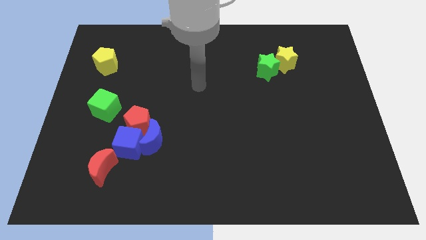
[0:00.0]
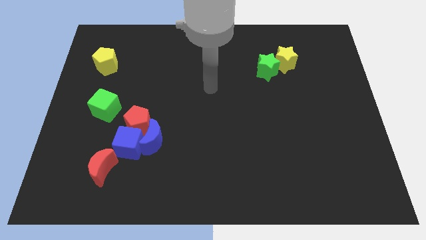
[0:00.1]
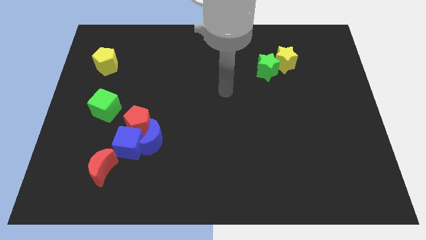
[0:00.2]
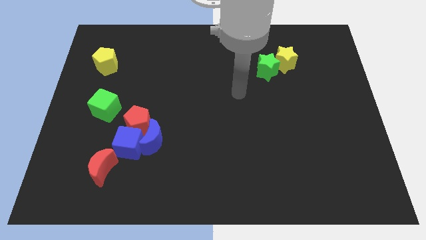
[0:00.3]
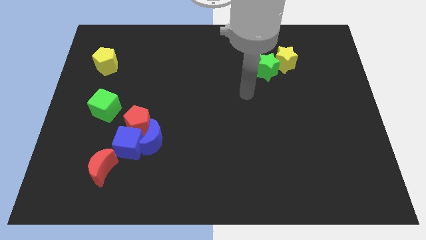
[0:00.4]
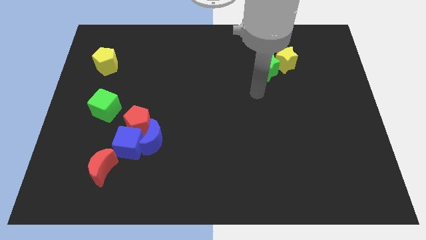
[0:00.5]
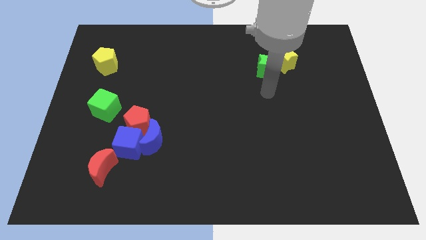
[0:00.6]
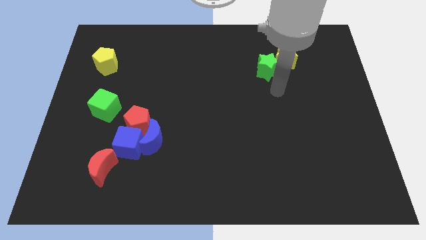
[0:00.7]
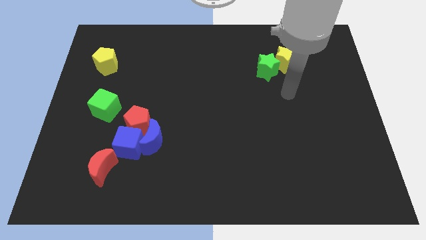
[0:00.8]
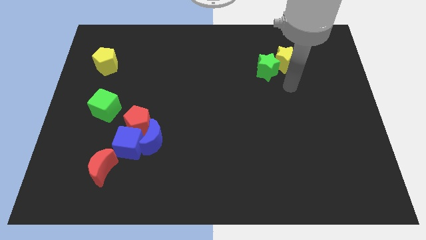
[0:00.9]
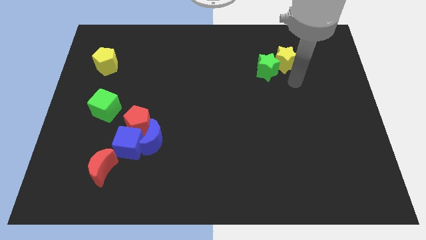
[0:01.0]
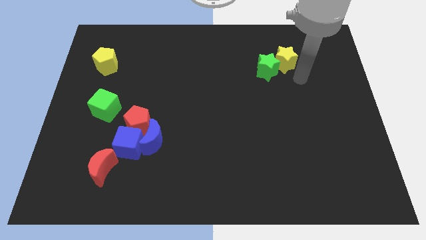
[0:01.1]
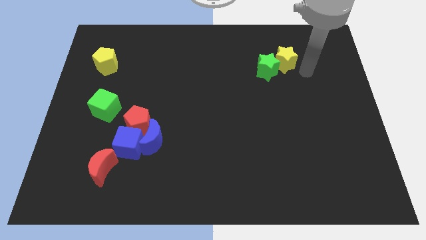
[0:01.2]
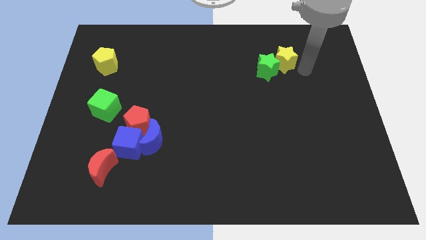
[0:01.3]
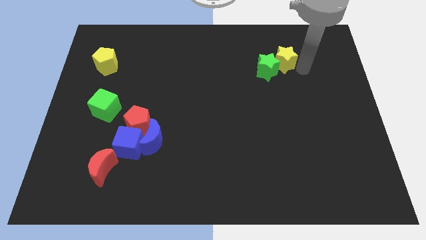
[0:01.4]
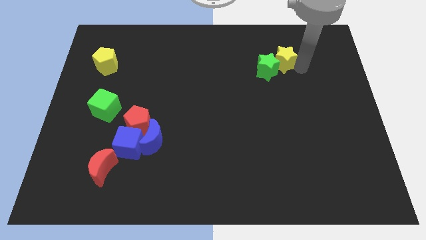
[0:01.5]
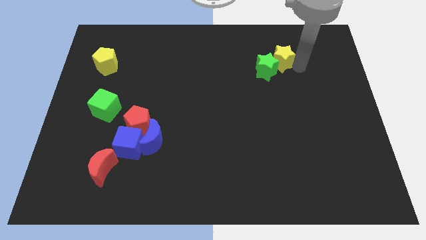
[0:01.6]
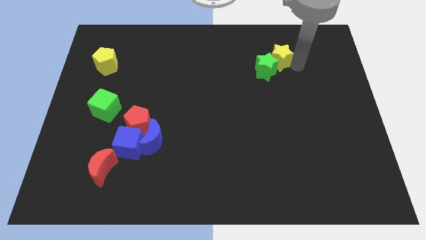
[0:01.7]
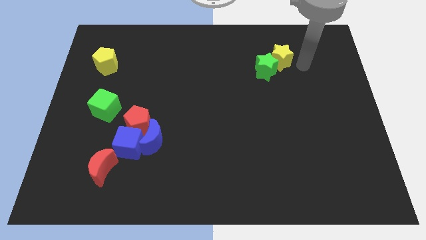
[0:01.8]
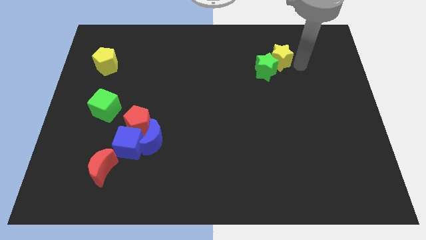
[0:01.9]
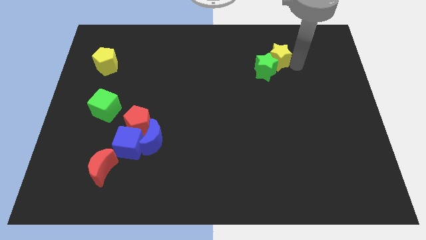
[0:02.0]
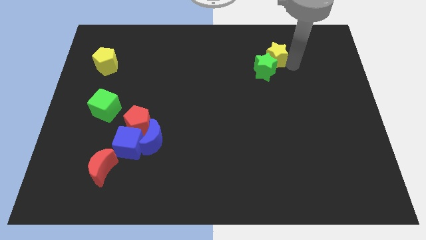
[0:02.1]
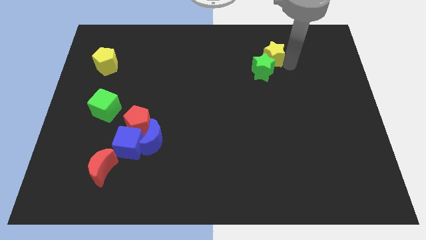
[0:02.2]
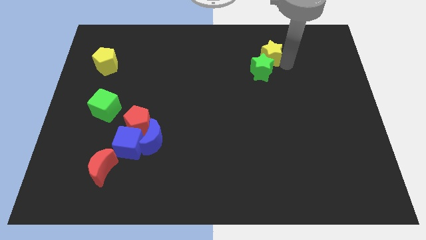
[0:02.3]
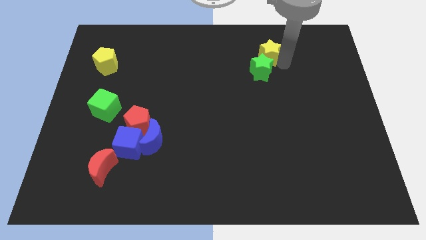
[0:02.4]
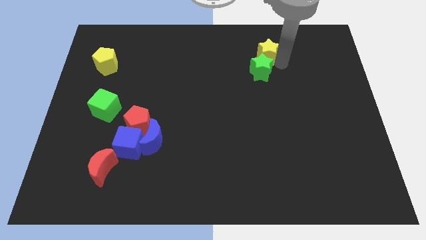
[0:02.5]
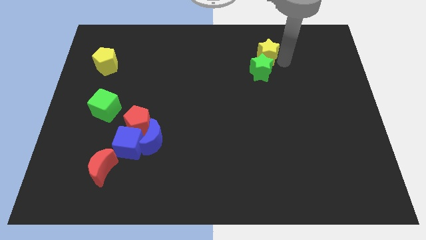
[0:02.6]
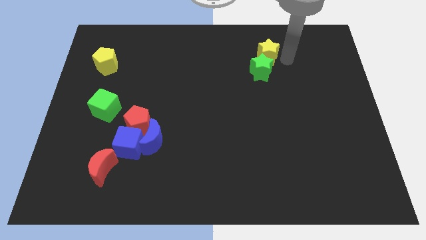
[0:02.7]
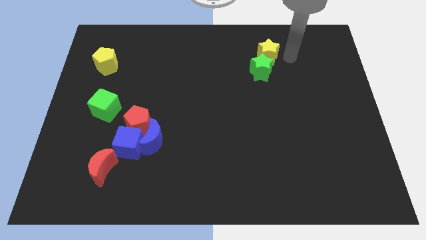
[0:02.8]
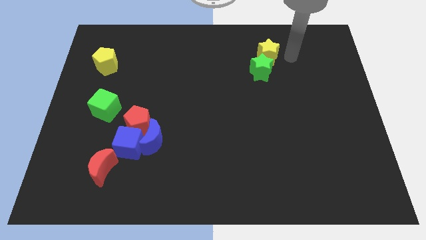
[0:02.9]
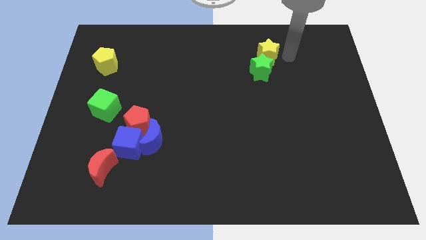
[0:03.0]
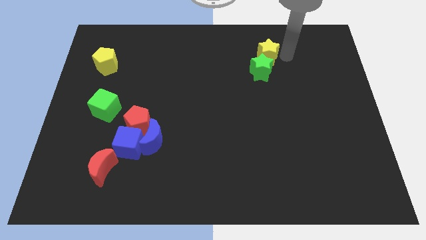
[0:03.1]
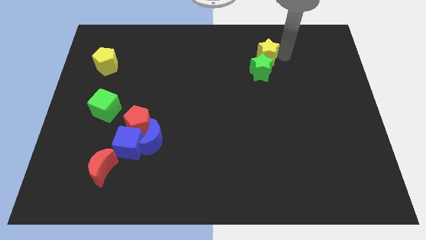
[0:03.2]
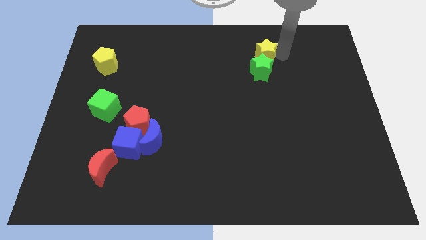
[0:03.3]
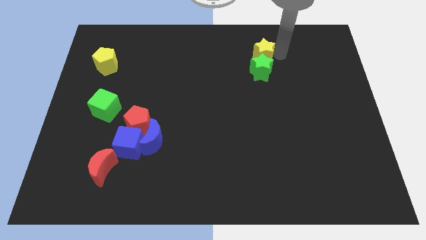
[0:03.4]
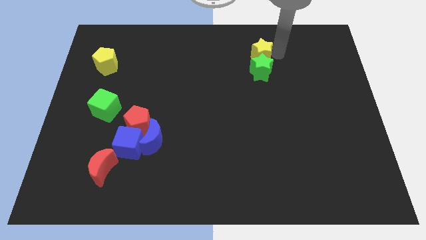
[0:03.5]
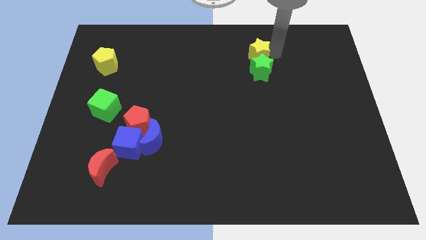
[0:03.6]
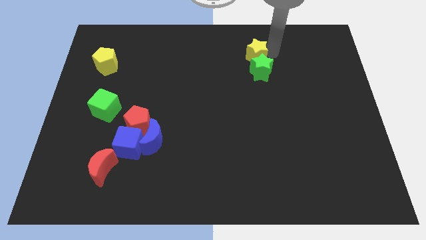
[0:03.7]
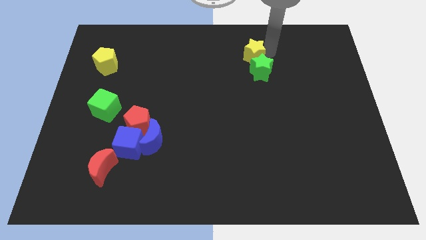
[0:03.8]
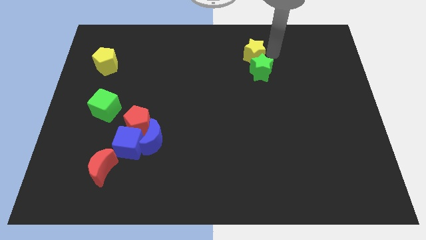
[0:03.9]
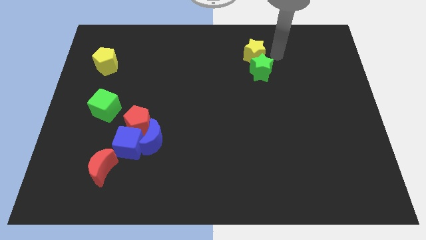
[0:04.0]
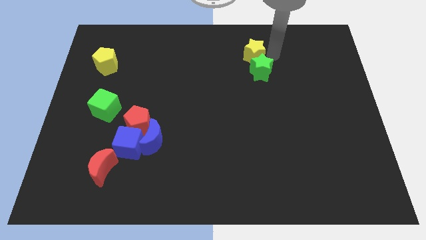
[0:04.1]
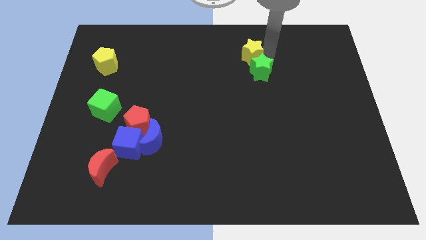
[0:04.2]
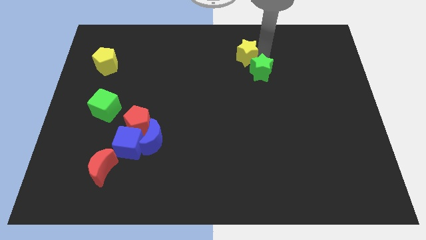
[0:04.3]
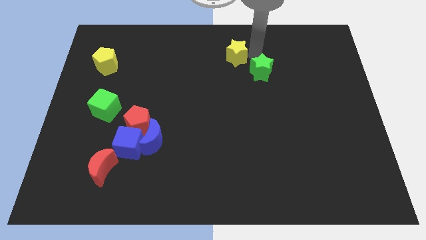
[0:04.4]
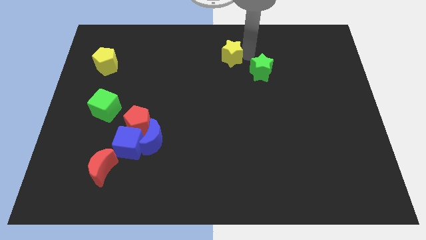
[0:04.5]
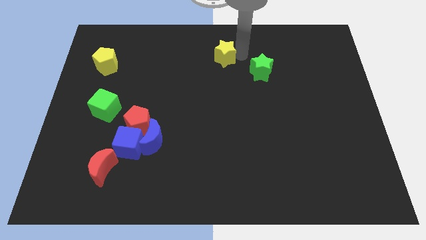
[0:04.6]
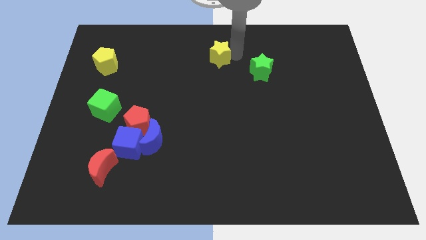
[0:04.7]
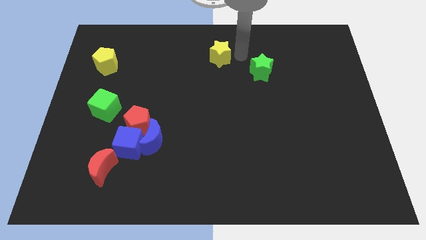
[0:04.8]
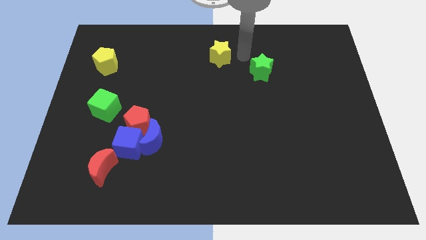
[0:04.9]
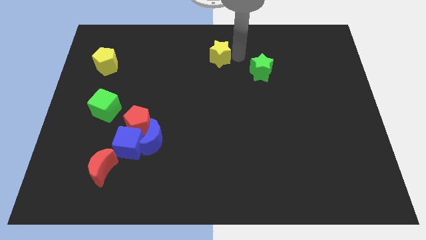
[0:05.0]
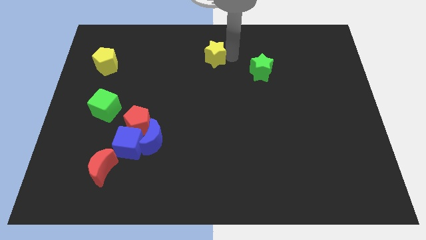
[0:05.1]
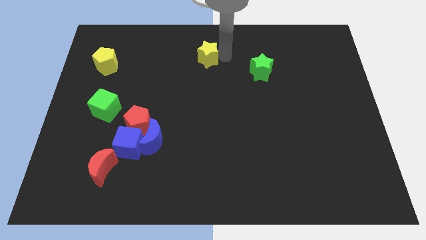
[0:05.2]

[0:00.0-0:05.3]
push the yellow star to the left

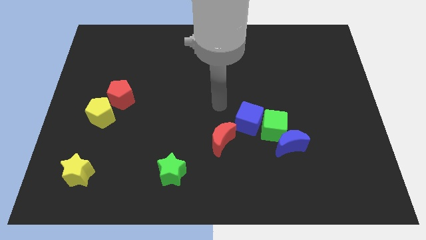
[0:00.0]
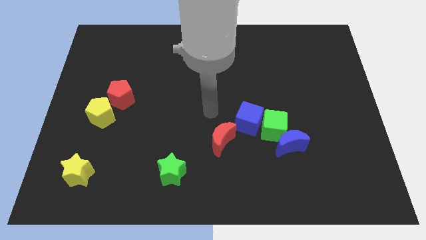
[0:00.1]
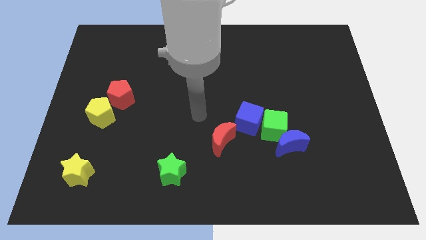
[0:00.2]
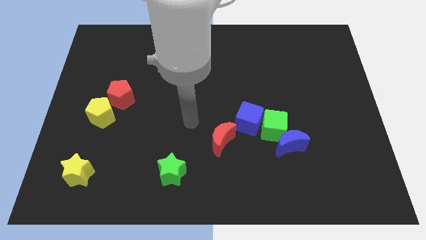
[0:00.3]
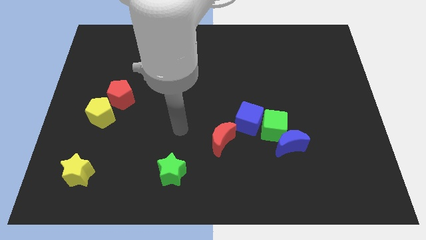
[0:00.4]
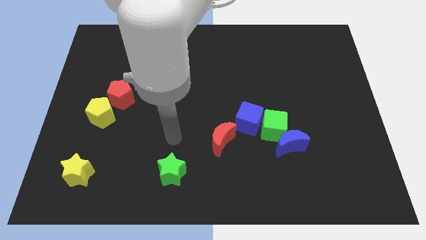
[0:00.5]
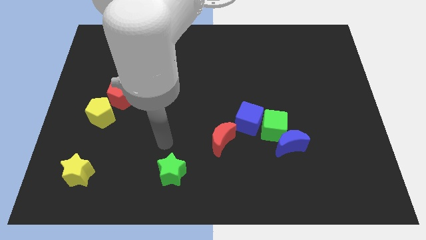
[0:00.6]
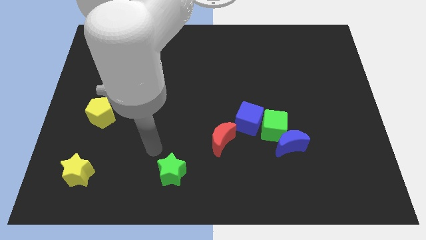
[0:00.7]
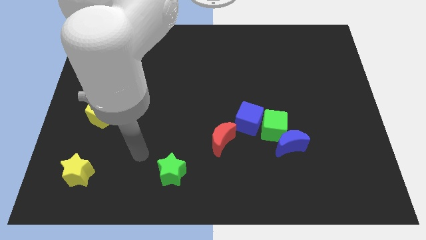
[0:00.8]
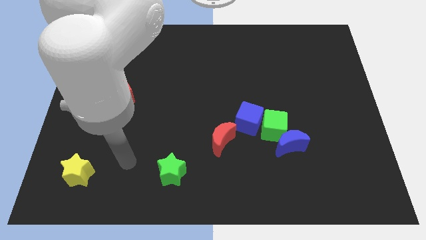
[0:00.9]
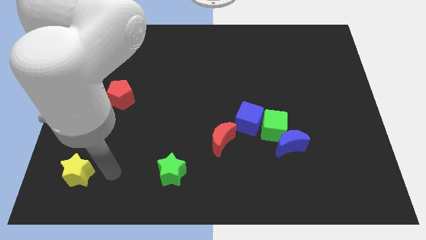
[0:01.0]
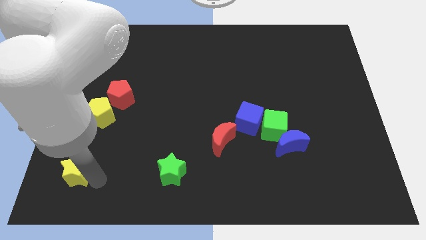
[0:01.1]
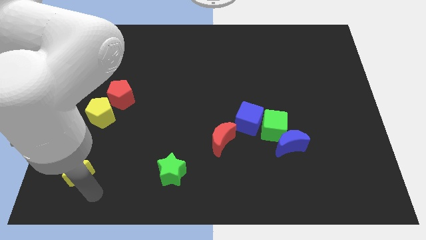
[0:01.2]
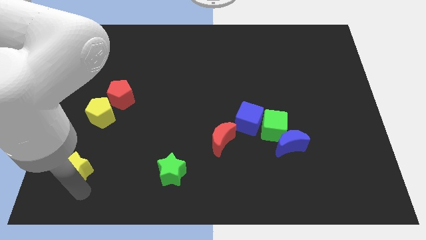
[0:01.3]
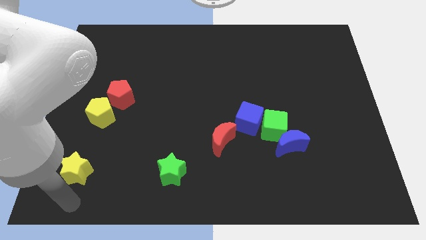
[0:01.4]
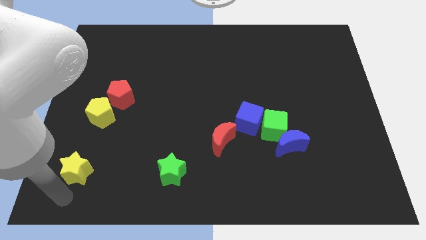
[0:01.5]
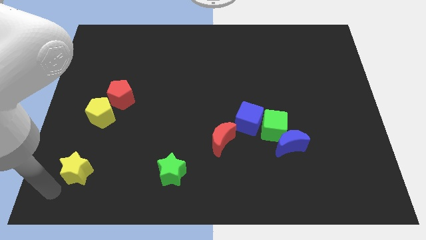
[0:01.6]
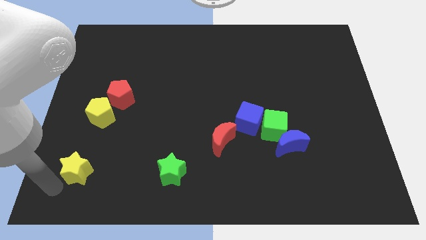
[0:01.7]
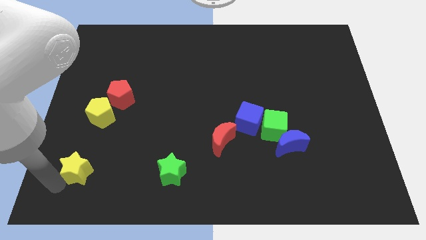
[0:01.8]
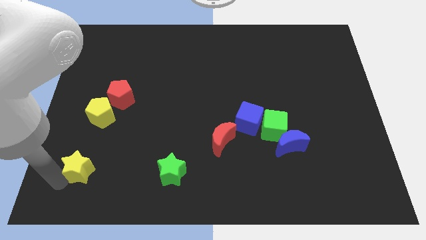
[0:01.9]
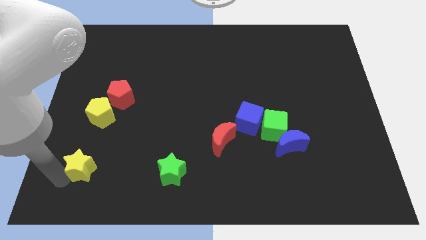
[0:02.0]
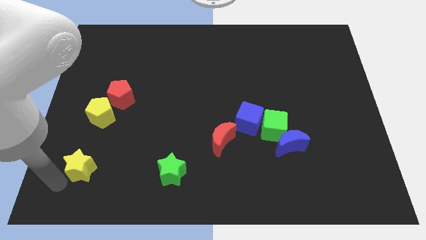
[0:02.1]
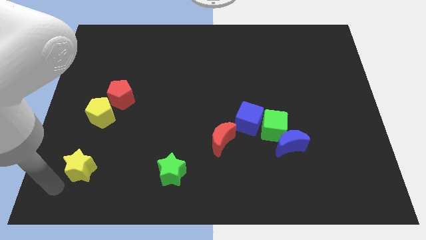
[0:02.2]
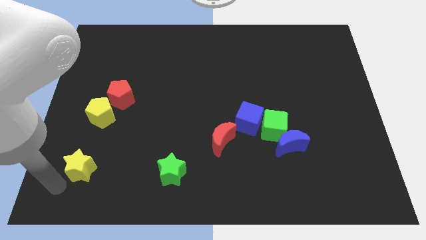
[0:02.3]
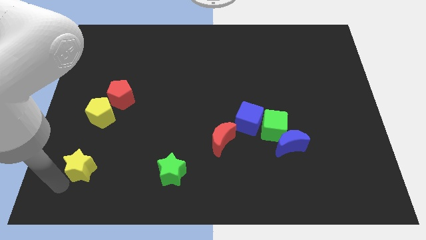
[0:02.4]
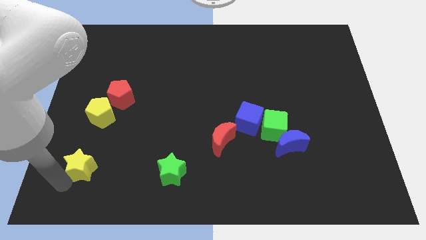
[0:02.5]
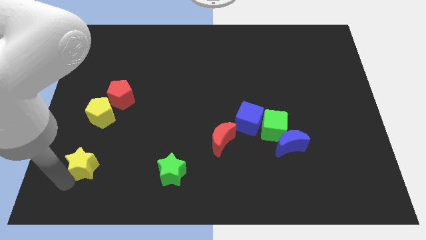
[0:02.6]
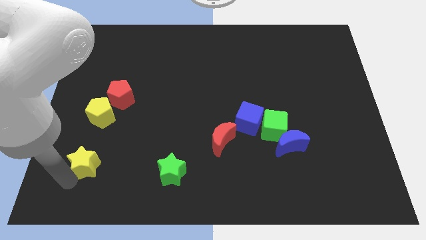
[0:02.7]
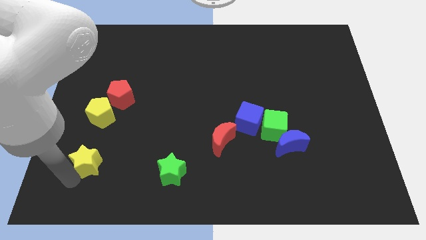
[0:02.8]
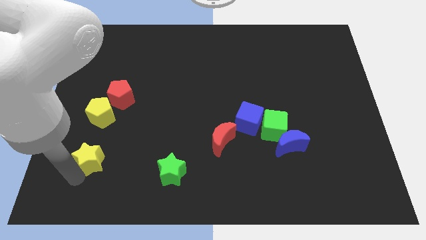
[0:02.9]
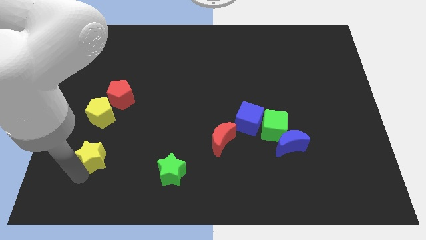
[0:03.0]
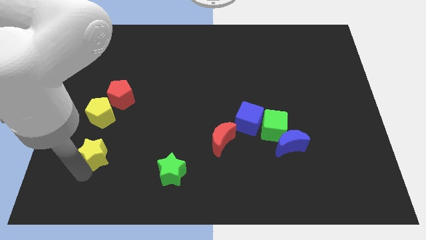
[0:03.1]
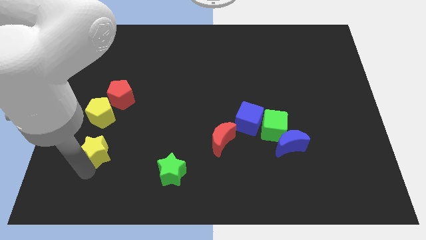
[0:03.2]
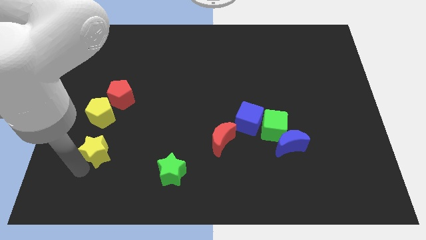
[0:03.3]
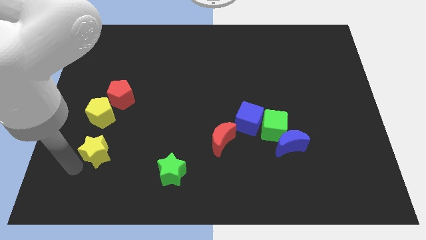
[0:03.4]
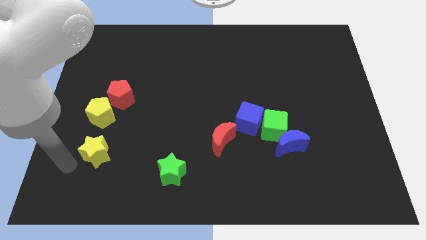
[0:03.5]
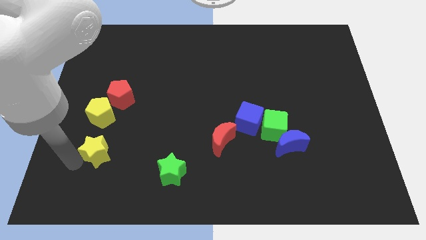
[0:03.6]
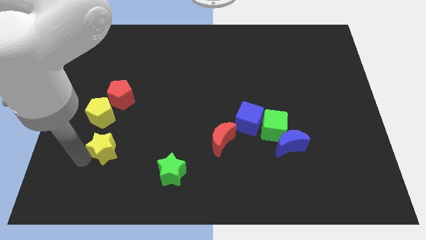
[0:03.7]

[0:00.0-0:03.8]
slightly slide the yellow star up and then right
